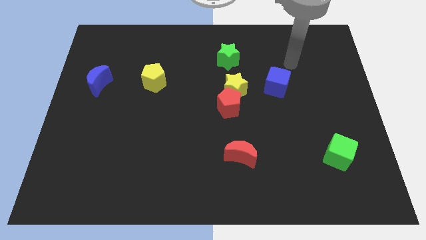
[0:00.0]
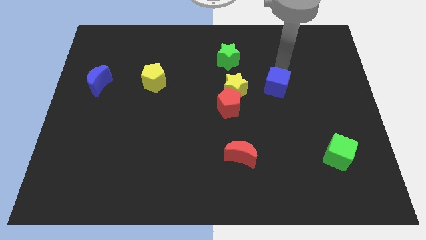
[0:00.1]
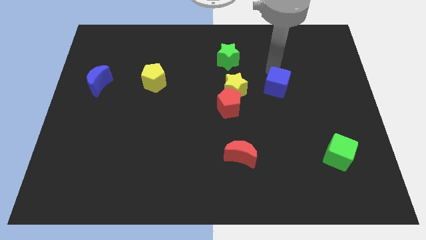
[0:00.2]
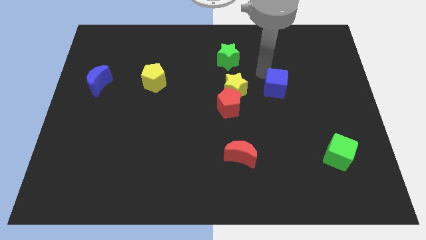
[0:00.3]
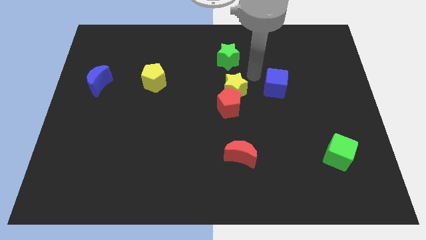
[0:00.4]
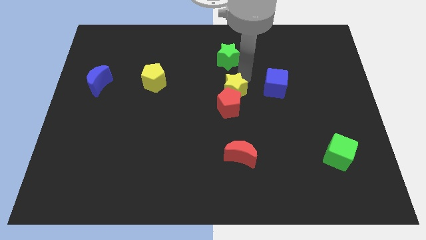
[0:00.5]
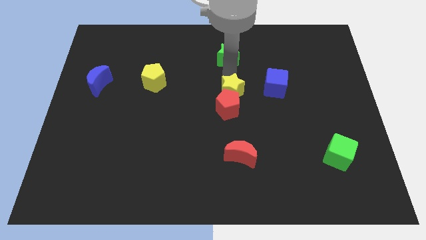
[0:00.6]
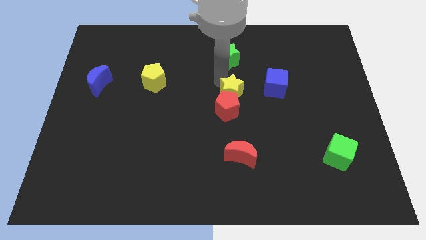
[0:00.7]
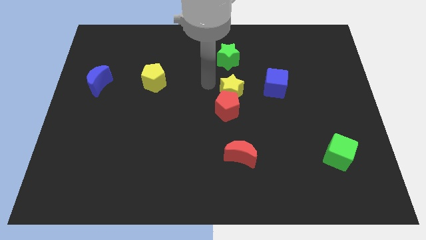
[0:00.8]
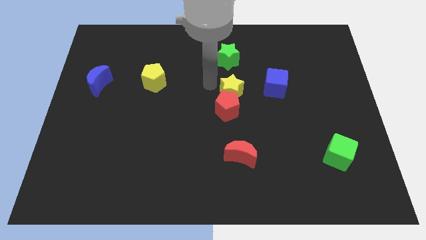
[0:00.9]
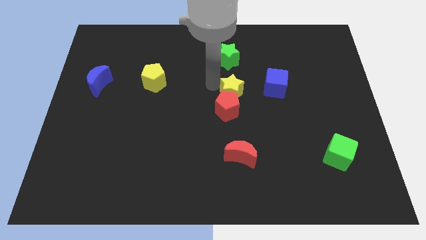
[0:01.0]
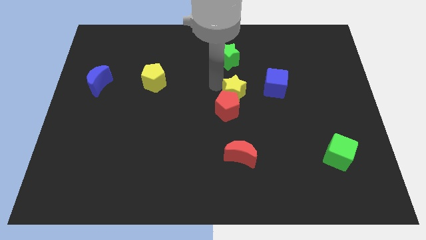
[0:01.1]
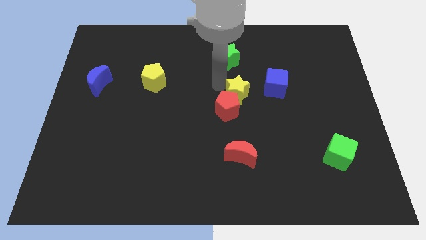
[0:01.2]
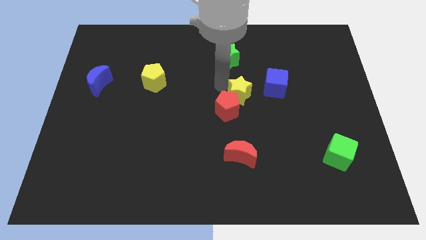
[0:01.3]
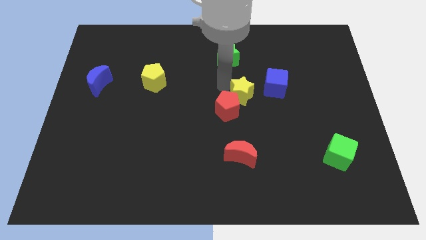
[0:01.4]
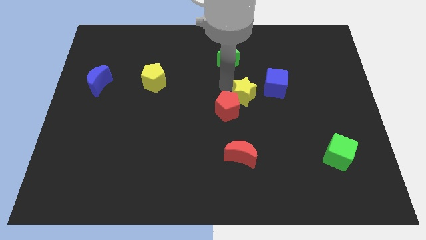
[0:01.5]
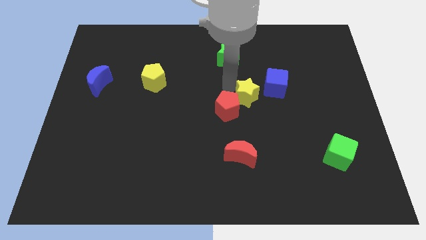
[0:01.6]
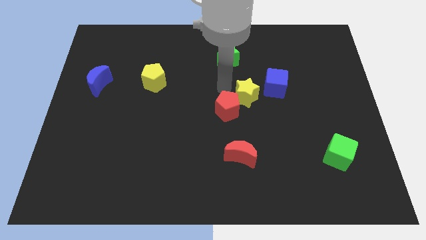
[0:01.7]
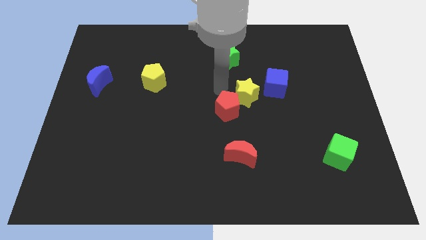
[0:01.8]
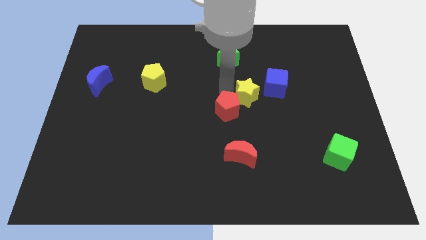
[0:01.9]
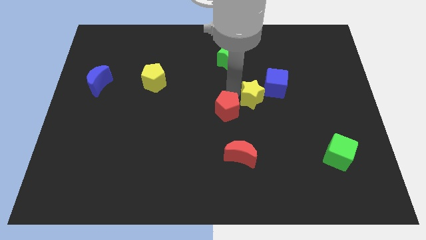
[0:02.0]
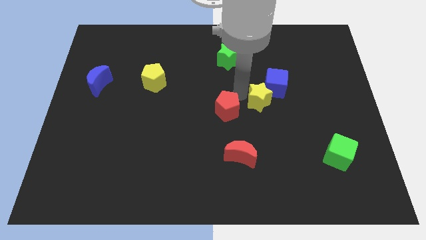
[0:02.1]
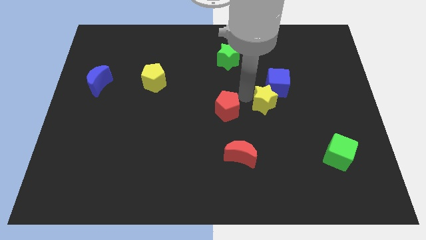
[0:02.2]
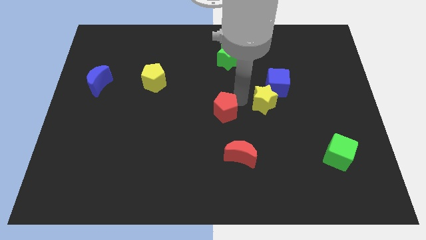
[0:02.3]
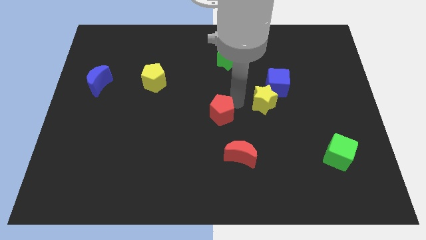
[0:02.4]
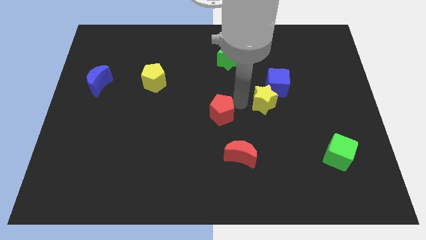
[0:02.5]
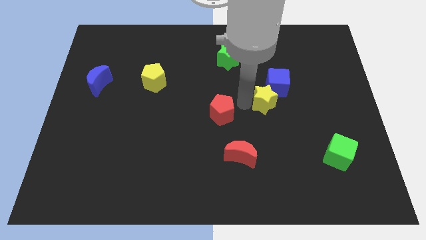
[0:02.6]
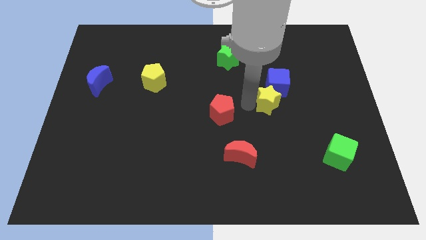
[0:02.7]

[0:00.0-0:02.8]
slightly push the yellow star right

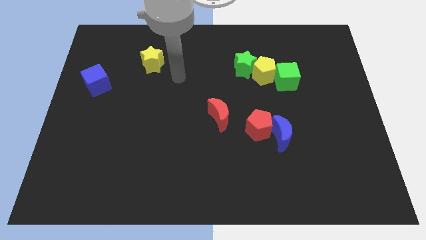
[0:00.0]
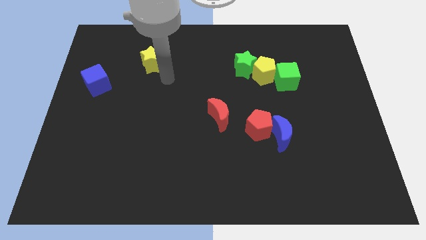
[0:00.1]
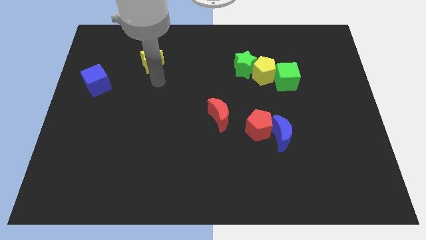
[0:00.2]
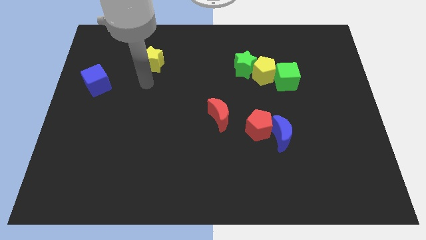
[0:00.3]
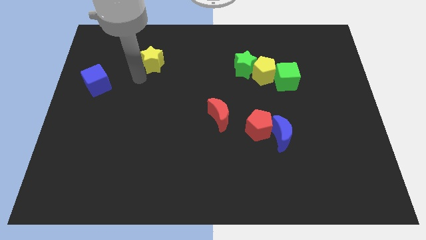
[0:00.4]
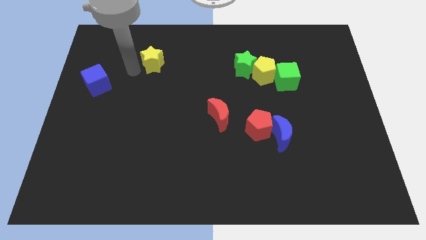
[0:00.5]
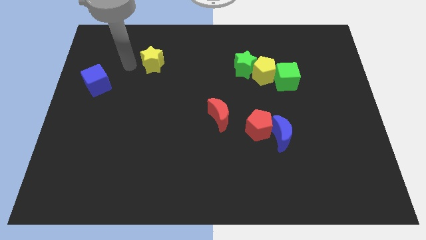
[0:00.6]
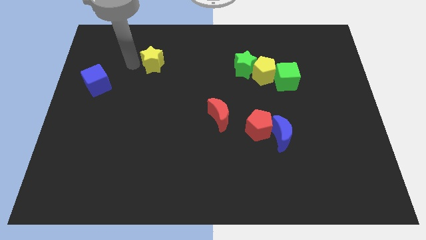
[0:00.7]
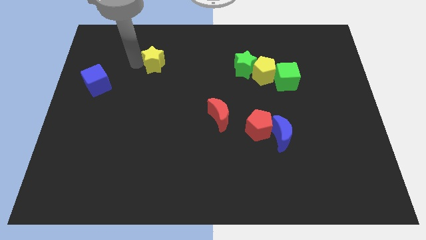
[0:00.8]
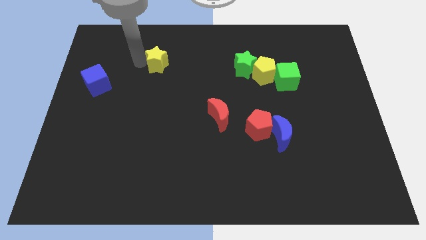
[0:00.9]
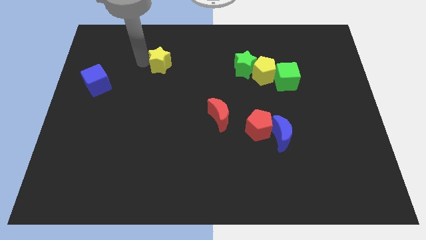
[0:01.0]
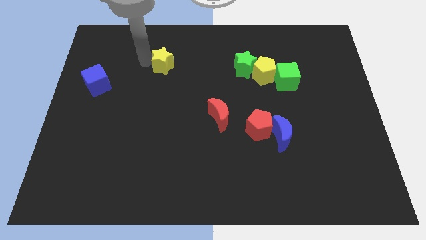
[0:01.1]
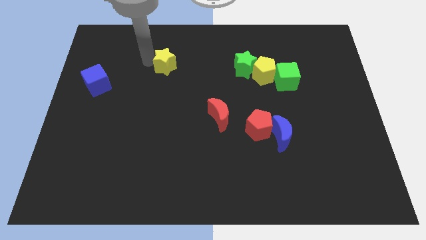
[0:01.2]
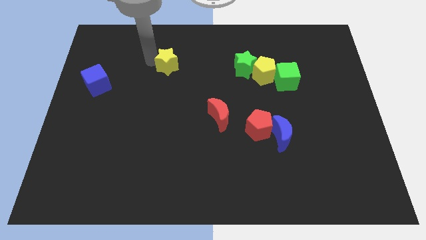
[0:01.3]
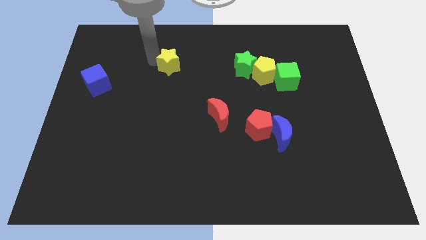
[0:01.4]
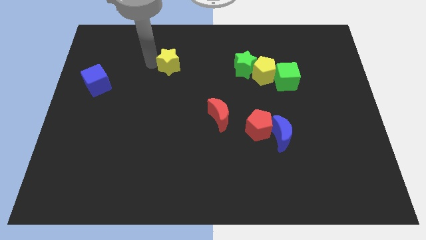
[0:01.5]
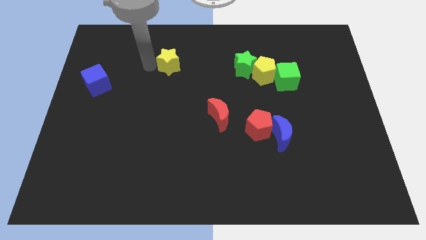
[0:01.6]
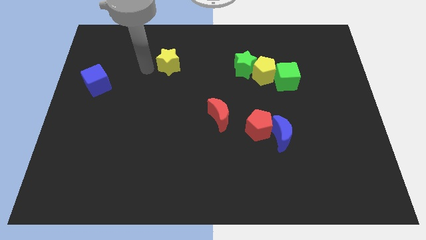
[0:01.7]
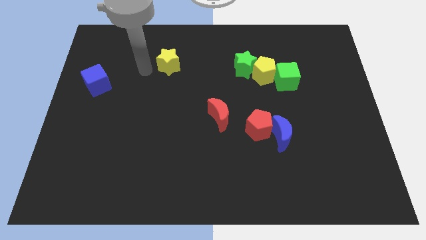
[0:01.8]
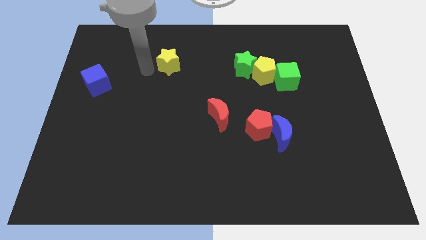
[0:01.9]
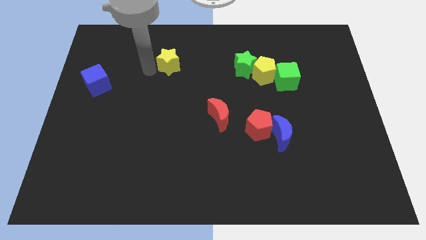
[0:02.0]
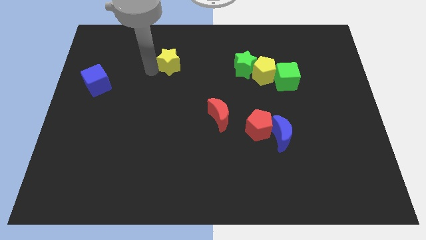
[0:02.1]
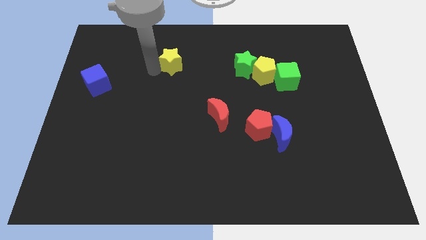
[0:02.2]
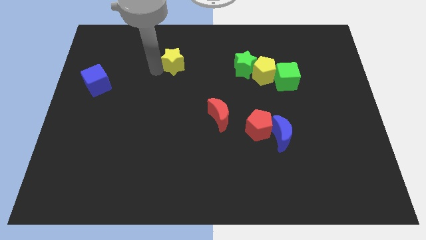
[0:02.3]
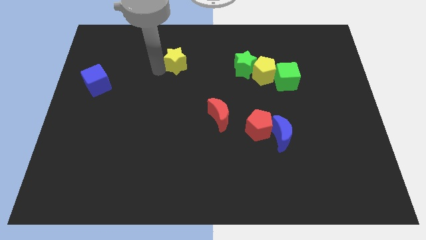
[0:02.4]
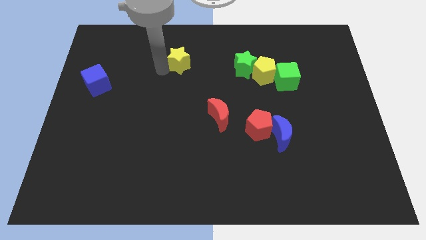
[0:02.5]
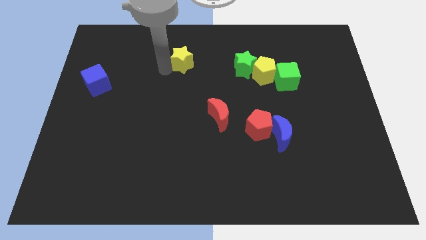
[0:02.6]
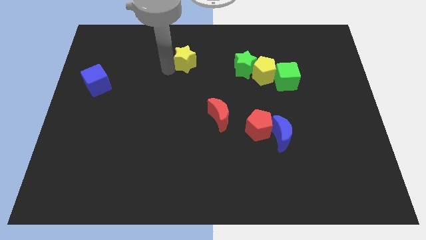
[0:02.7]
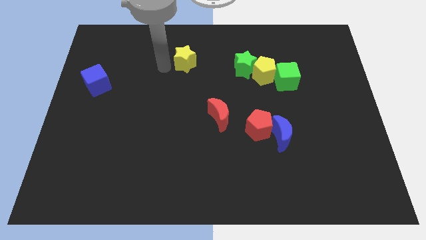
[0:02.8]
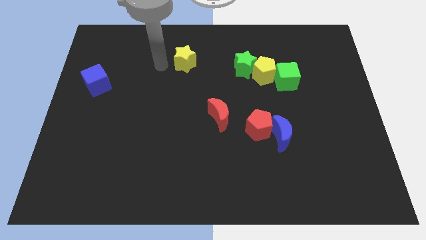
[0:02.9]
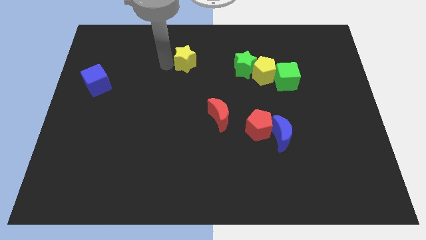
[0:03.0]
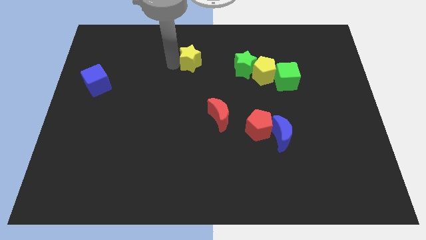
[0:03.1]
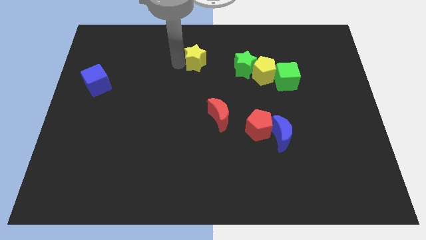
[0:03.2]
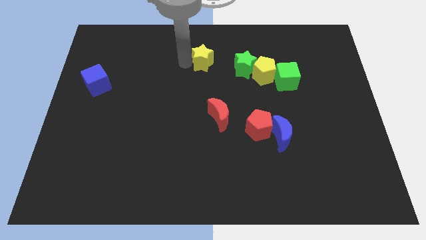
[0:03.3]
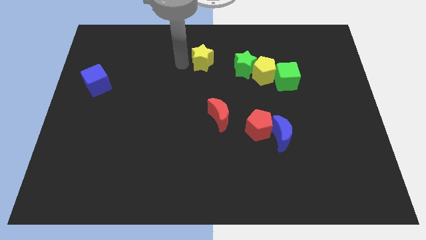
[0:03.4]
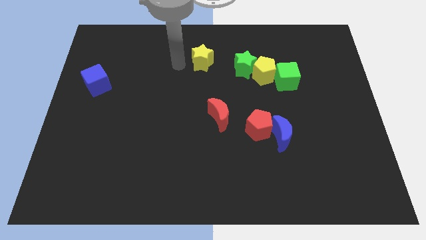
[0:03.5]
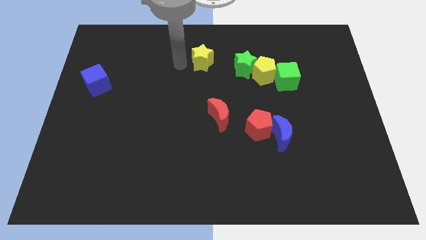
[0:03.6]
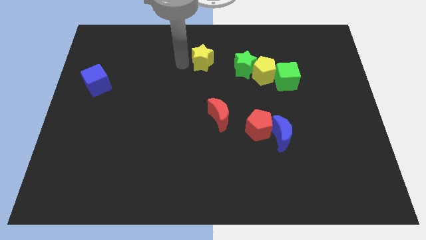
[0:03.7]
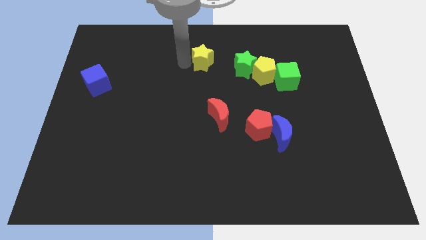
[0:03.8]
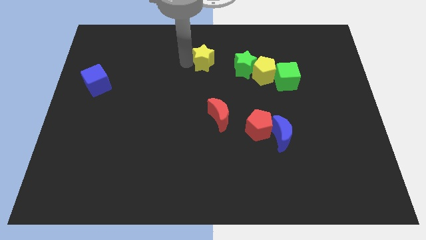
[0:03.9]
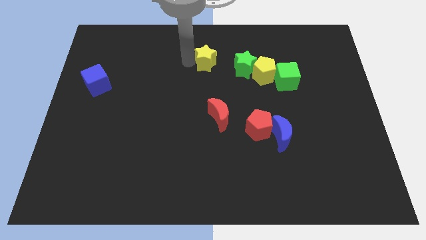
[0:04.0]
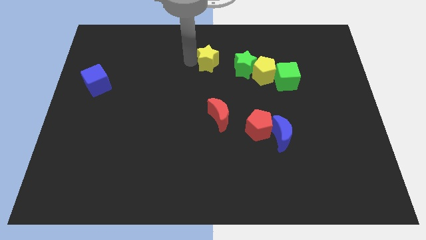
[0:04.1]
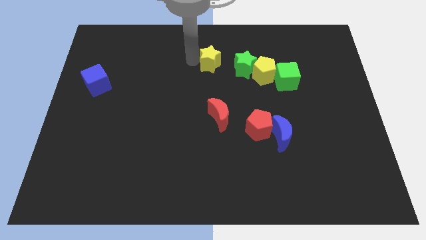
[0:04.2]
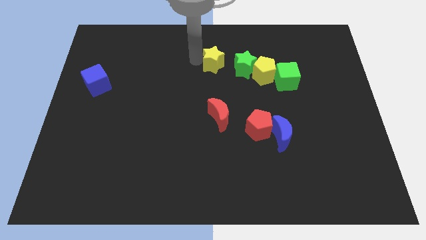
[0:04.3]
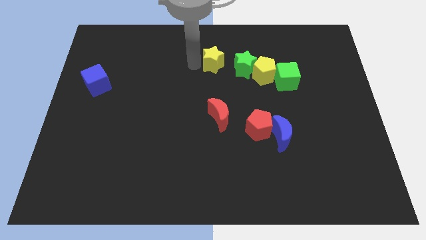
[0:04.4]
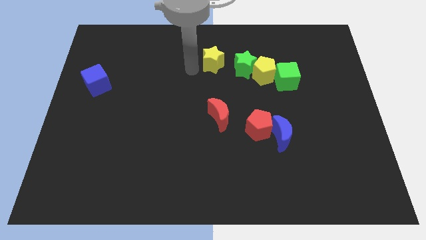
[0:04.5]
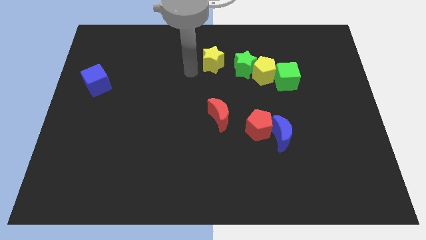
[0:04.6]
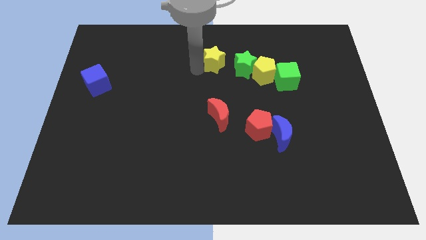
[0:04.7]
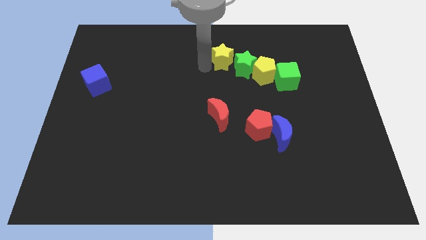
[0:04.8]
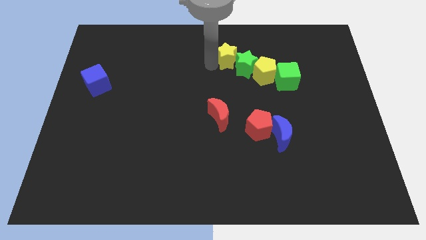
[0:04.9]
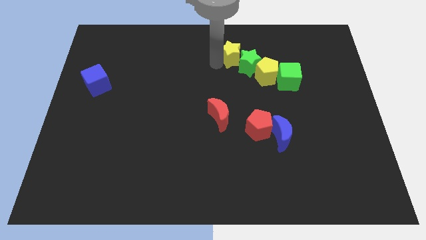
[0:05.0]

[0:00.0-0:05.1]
slide the yellow star right

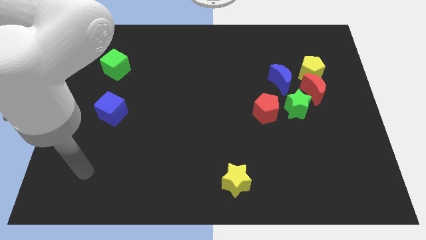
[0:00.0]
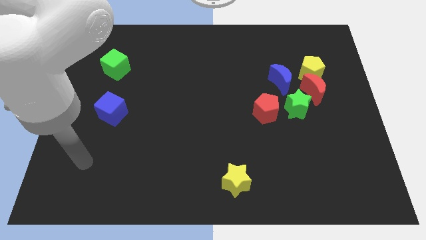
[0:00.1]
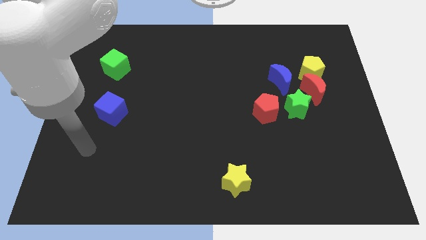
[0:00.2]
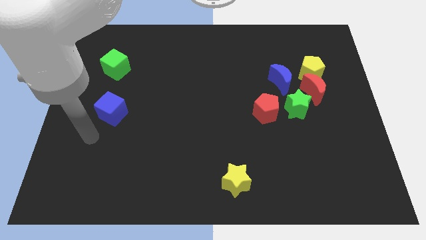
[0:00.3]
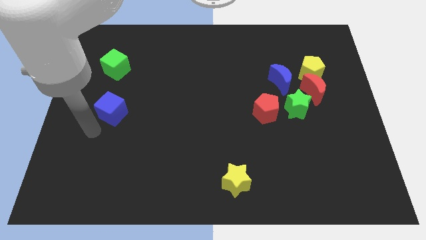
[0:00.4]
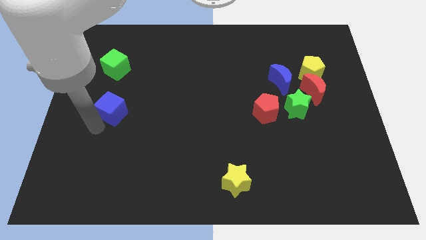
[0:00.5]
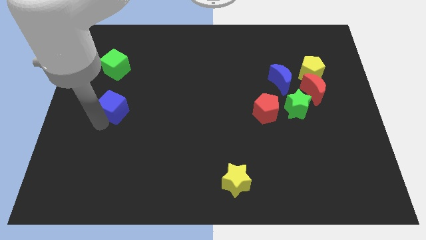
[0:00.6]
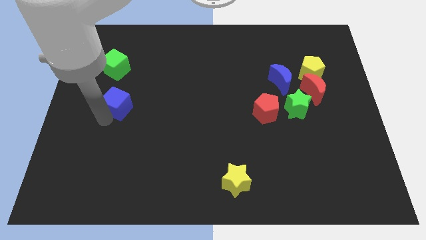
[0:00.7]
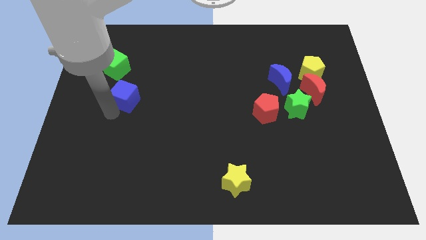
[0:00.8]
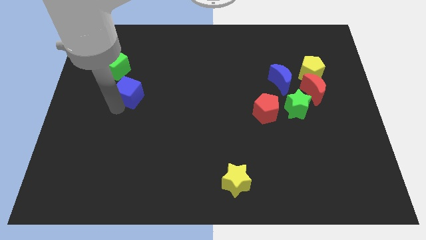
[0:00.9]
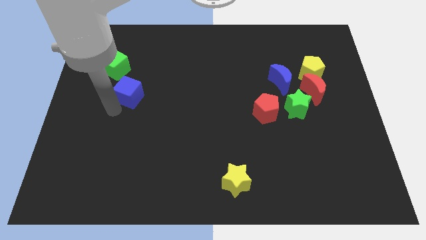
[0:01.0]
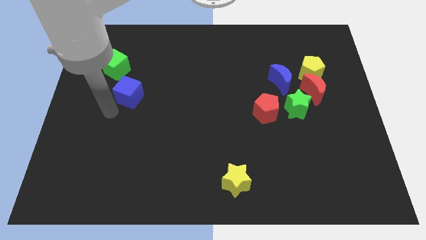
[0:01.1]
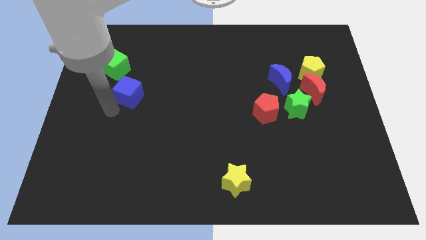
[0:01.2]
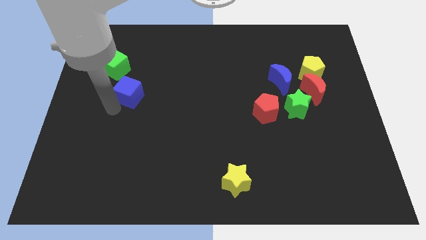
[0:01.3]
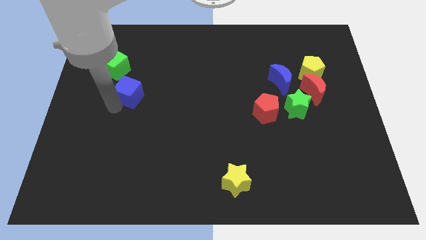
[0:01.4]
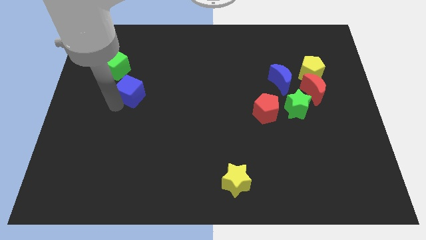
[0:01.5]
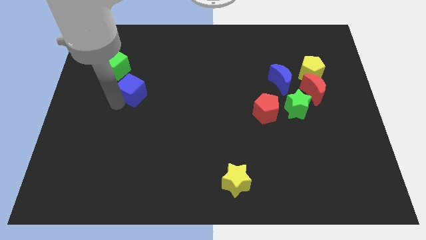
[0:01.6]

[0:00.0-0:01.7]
slightly move the blue cube up and then right
